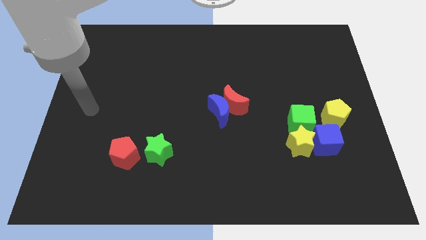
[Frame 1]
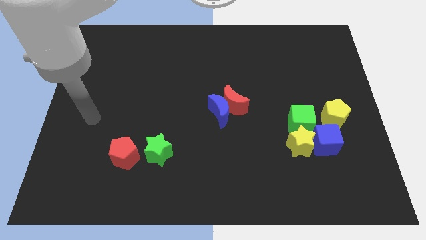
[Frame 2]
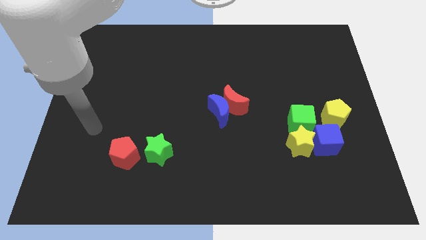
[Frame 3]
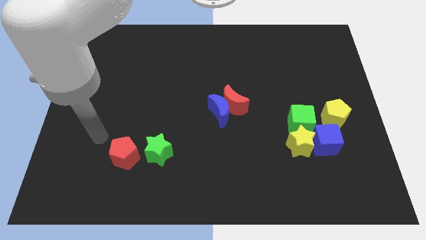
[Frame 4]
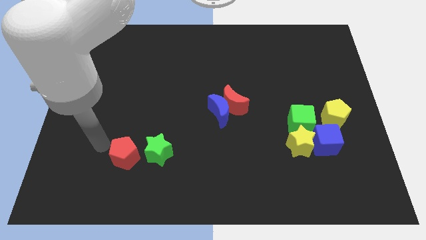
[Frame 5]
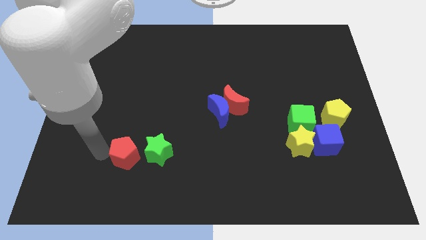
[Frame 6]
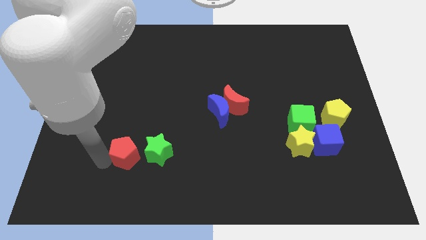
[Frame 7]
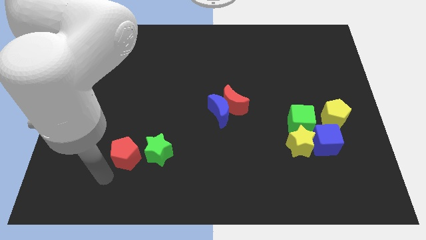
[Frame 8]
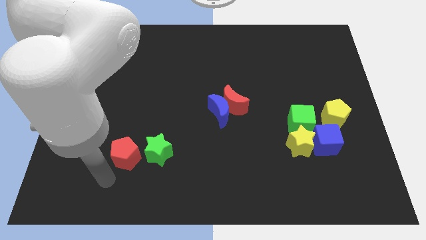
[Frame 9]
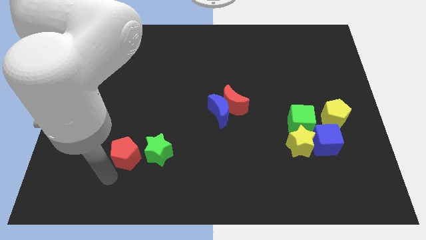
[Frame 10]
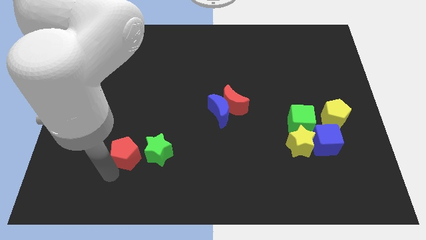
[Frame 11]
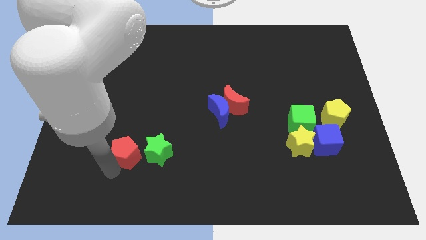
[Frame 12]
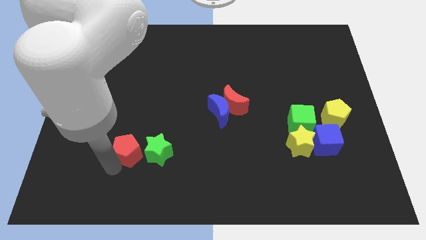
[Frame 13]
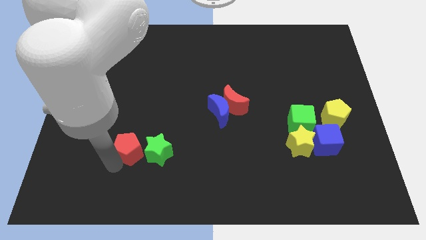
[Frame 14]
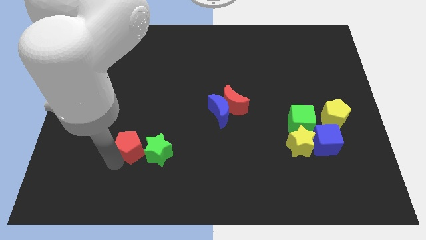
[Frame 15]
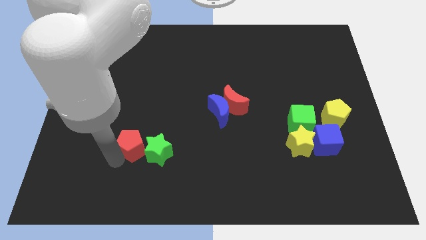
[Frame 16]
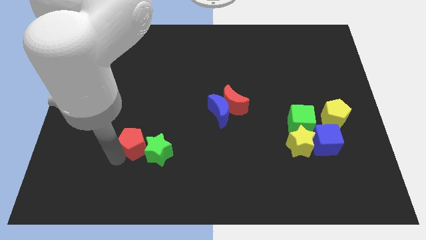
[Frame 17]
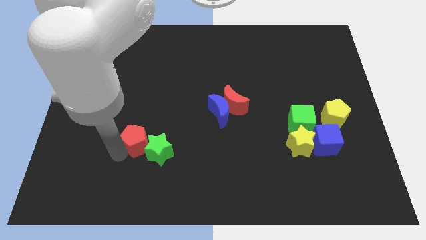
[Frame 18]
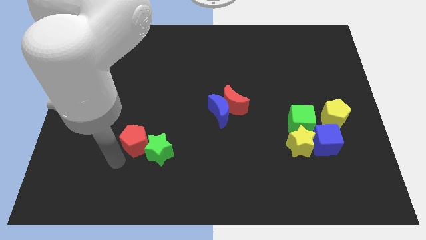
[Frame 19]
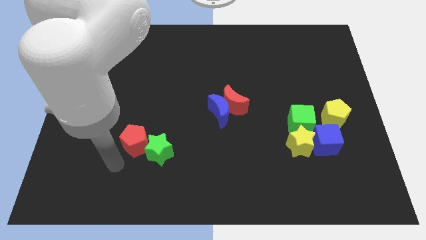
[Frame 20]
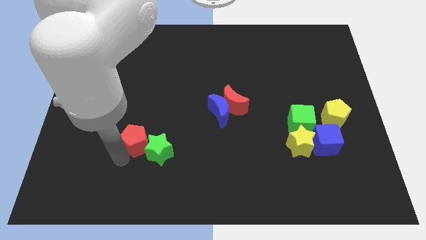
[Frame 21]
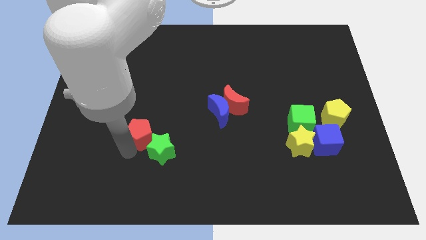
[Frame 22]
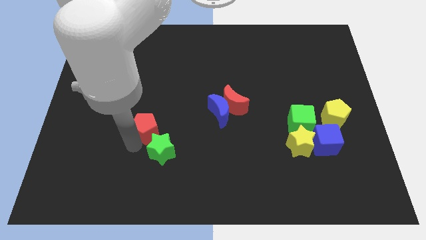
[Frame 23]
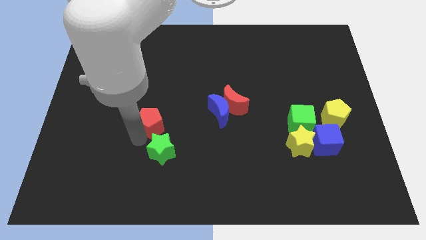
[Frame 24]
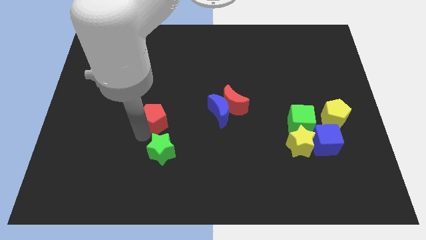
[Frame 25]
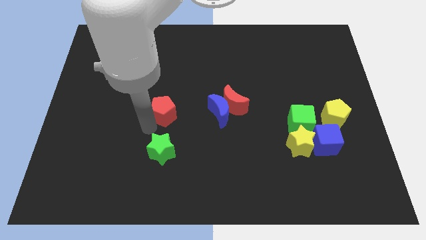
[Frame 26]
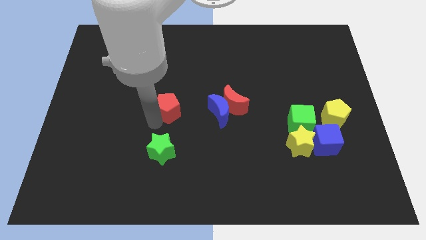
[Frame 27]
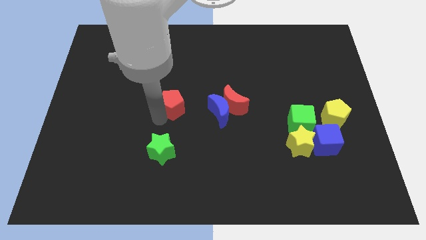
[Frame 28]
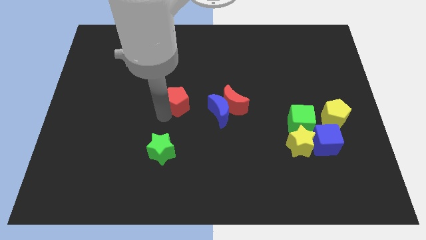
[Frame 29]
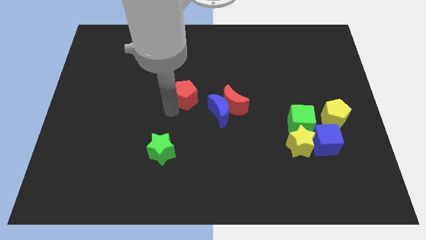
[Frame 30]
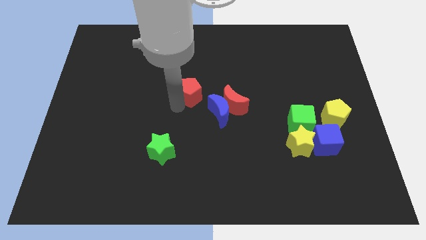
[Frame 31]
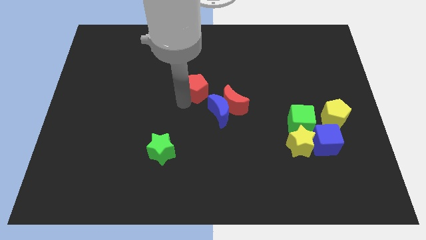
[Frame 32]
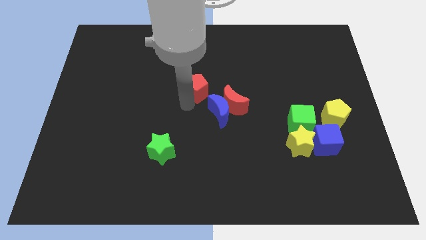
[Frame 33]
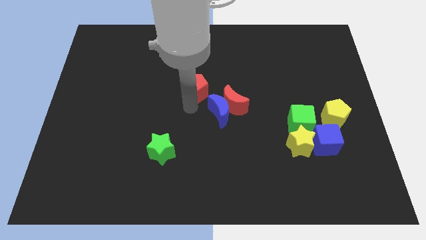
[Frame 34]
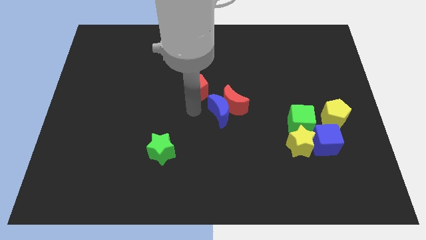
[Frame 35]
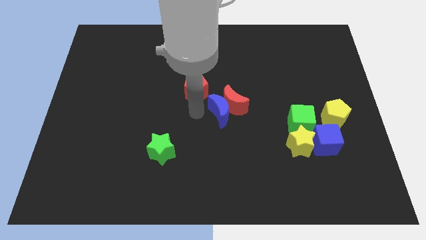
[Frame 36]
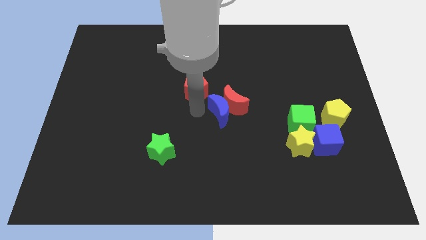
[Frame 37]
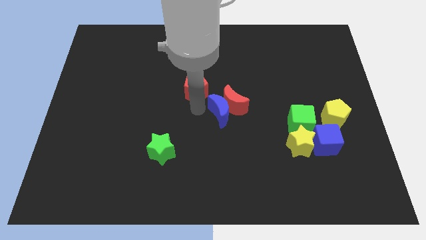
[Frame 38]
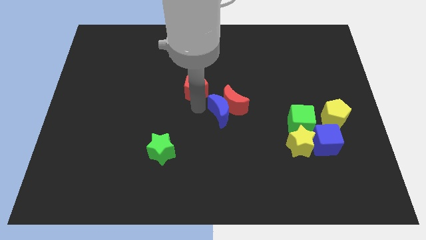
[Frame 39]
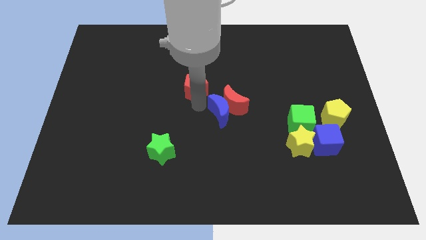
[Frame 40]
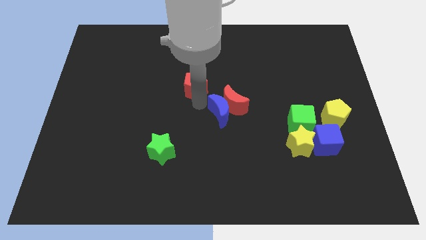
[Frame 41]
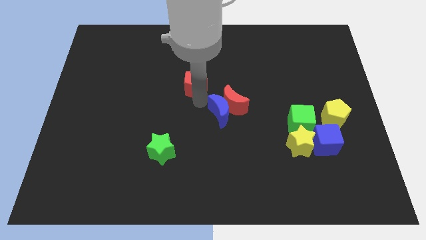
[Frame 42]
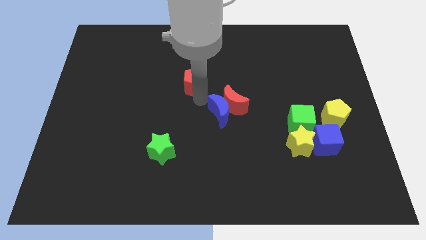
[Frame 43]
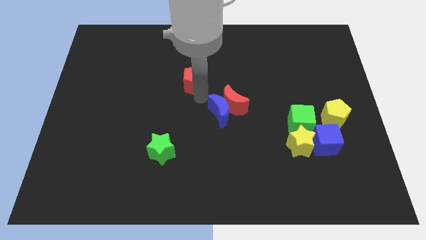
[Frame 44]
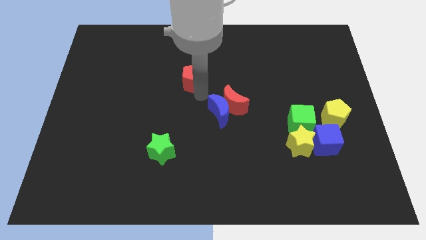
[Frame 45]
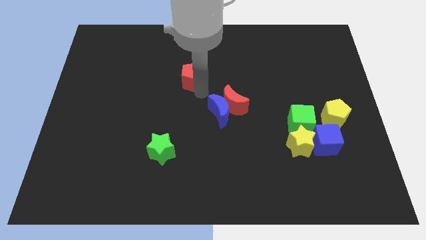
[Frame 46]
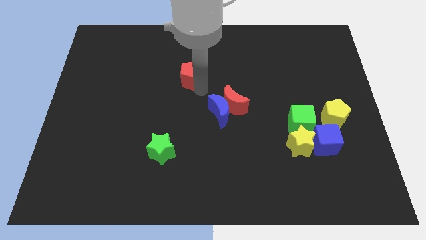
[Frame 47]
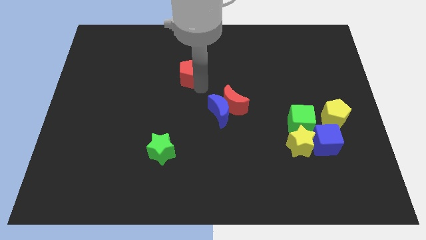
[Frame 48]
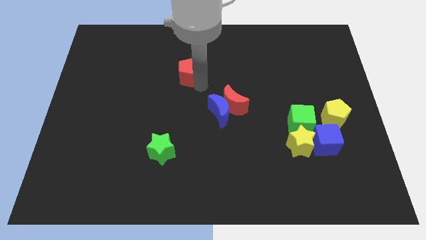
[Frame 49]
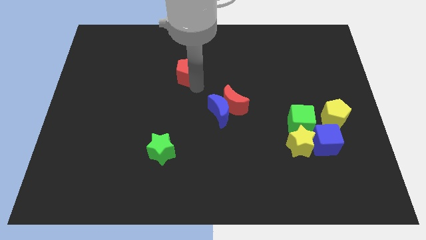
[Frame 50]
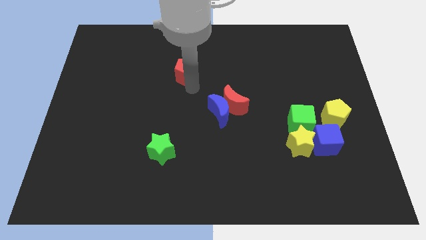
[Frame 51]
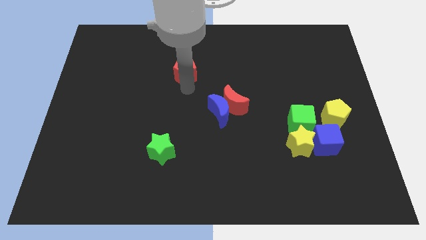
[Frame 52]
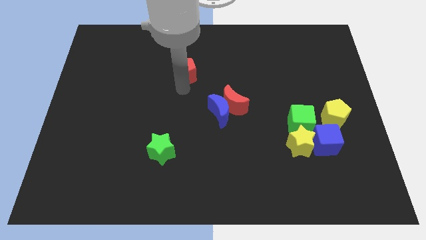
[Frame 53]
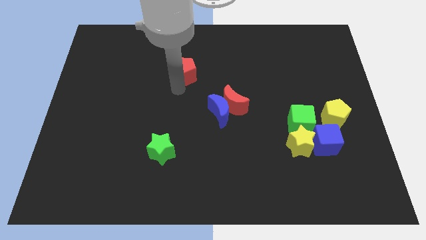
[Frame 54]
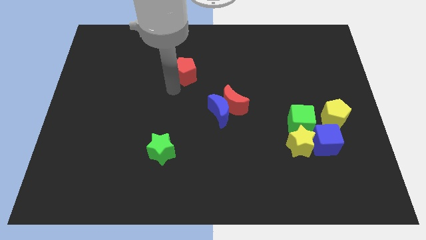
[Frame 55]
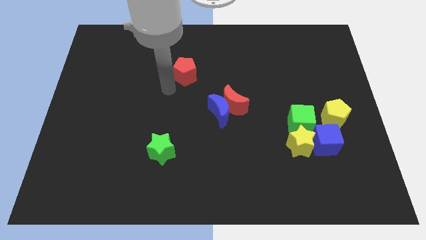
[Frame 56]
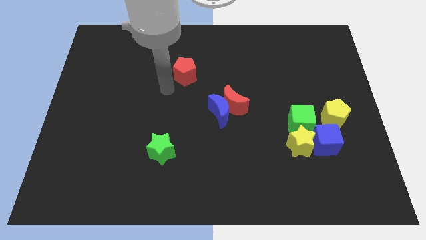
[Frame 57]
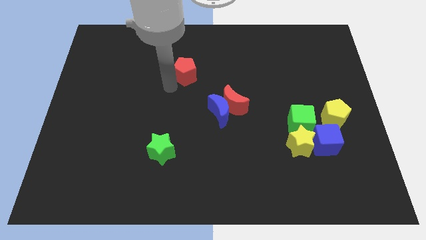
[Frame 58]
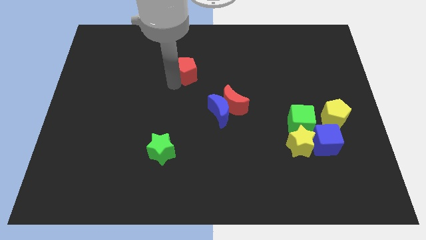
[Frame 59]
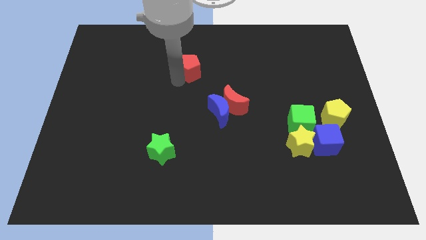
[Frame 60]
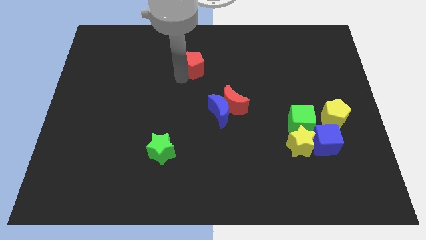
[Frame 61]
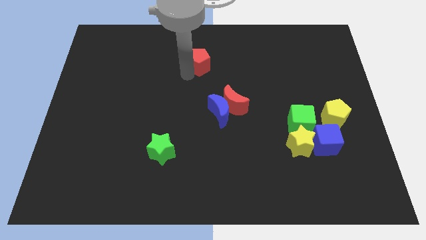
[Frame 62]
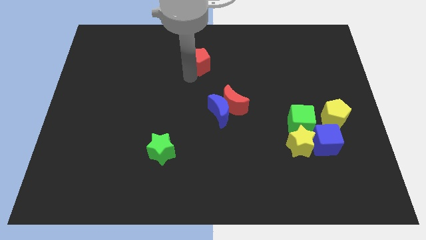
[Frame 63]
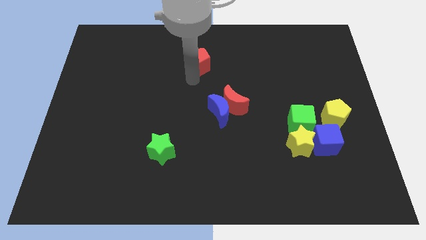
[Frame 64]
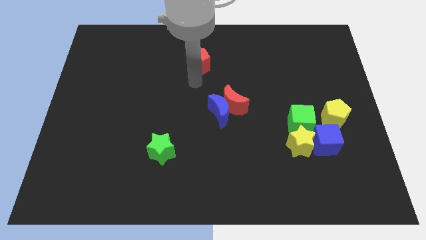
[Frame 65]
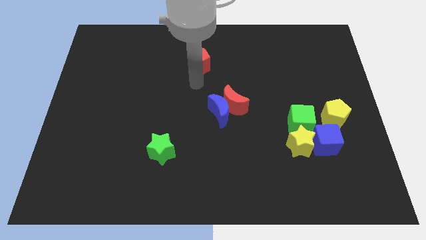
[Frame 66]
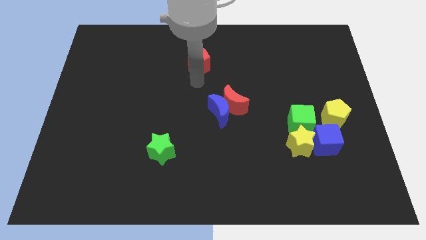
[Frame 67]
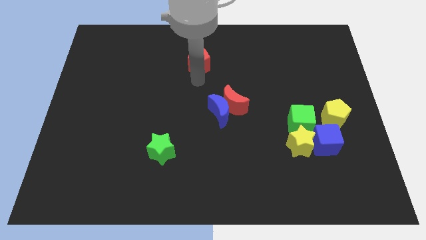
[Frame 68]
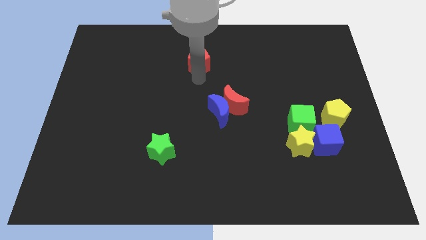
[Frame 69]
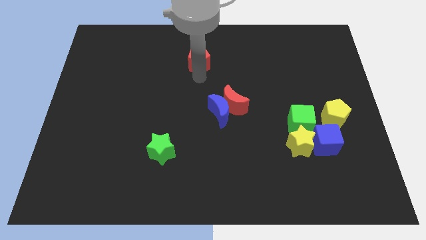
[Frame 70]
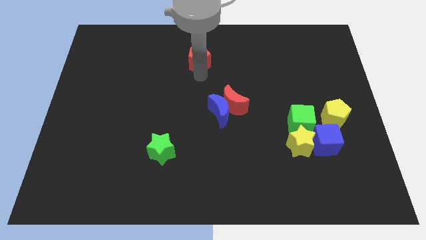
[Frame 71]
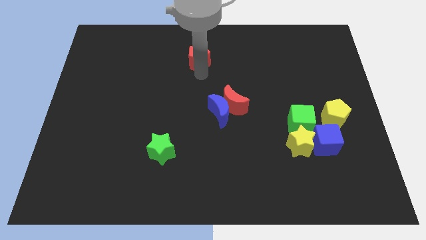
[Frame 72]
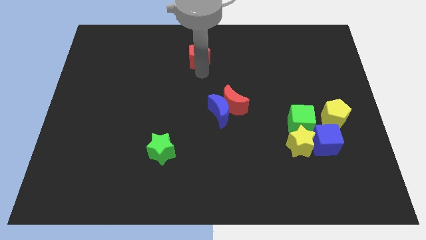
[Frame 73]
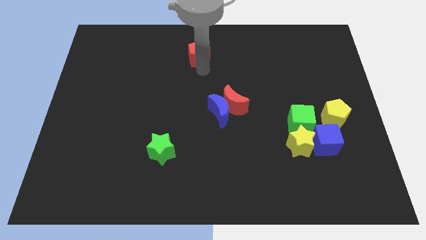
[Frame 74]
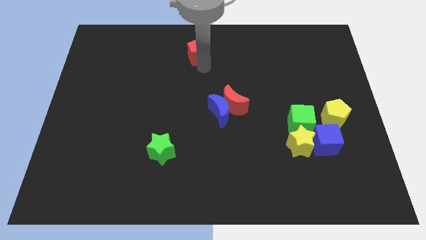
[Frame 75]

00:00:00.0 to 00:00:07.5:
push the red pentagon to the towards your base
